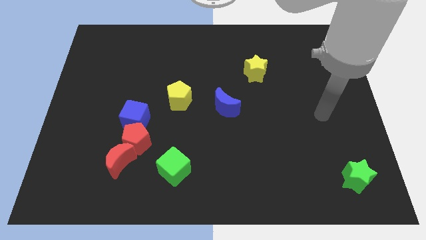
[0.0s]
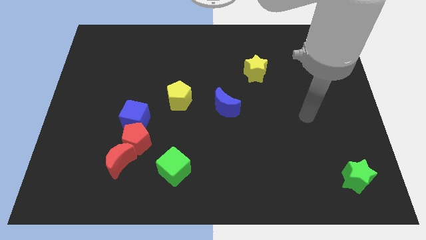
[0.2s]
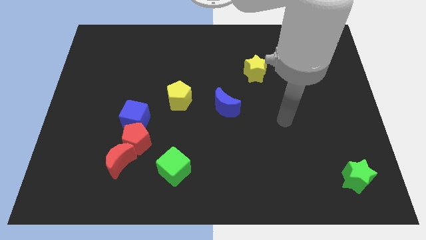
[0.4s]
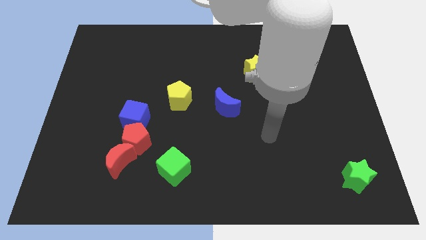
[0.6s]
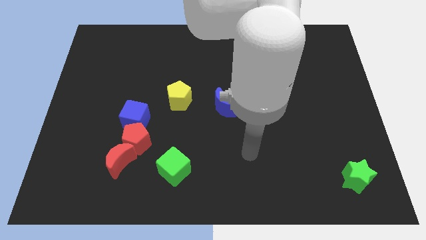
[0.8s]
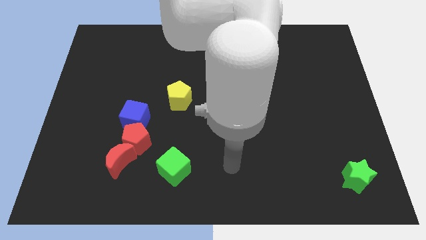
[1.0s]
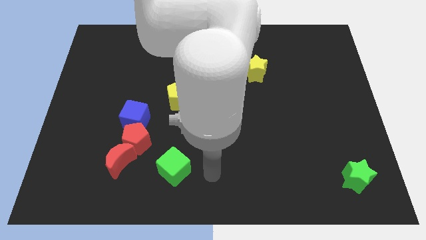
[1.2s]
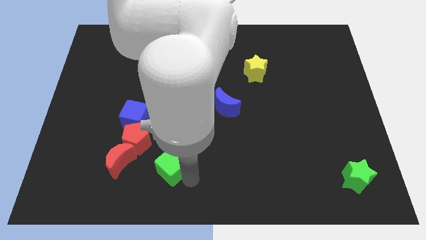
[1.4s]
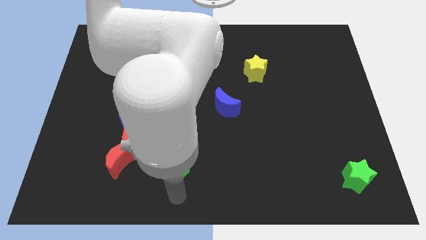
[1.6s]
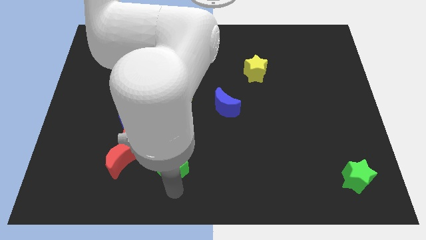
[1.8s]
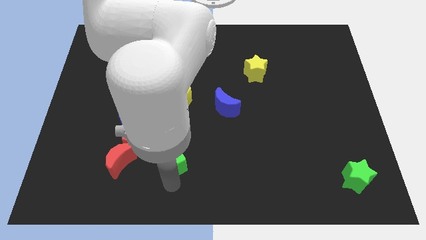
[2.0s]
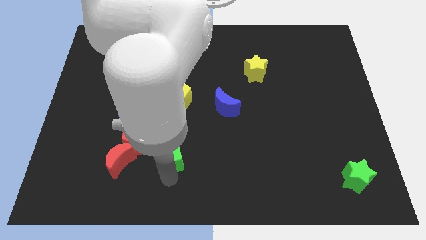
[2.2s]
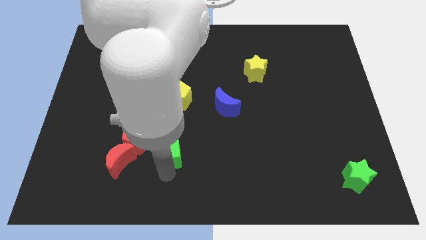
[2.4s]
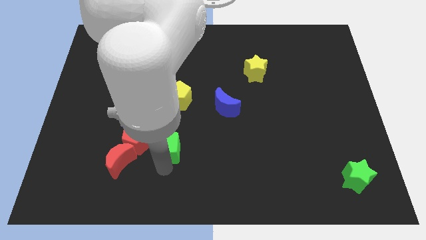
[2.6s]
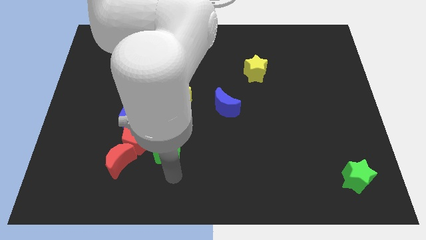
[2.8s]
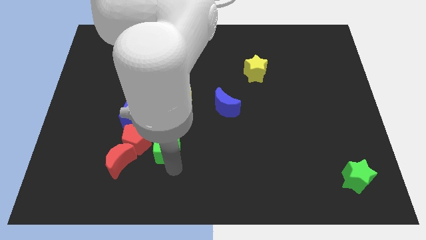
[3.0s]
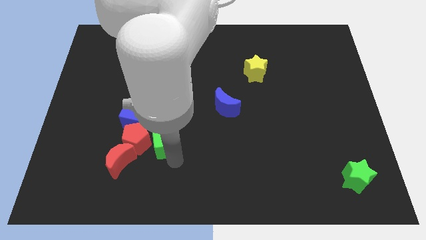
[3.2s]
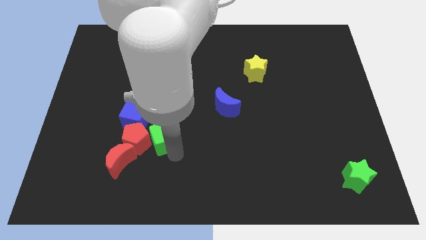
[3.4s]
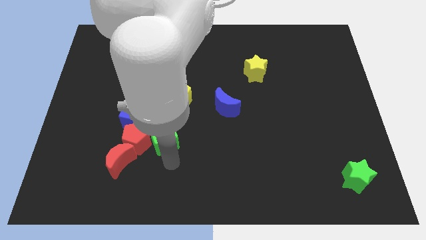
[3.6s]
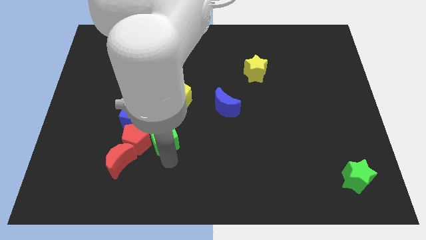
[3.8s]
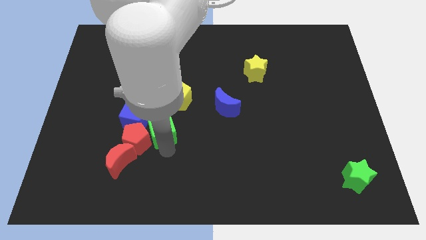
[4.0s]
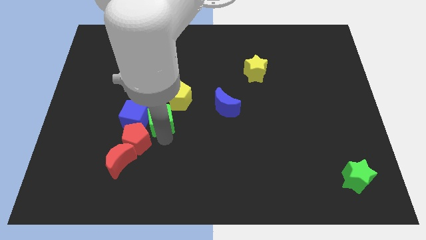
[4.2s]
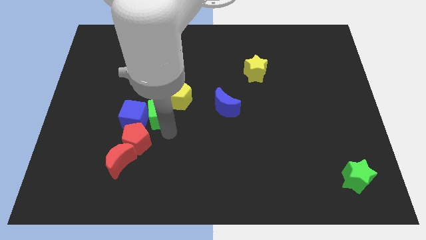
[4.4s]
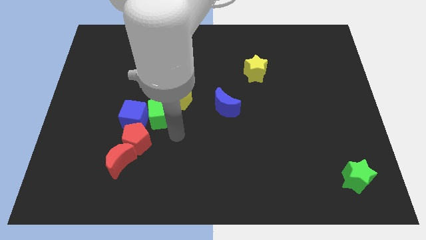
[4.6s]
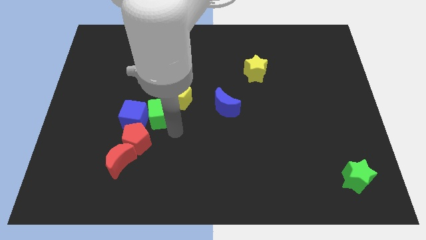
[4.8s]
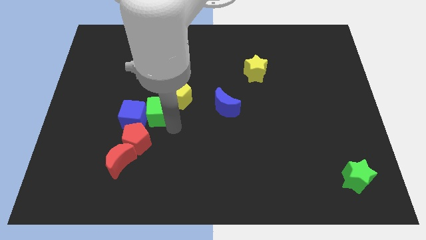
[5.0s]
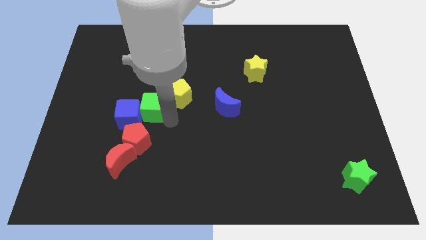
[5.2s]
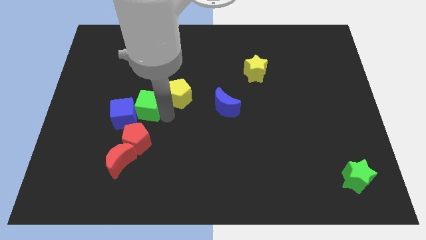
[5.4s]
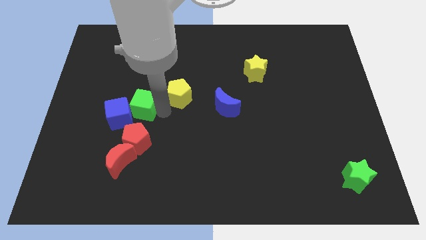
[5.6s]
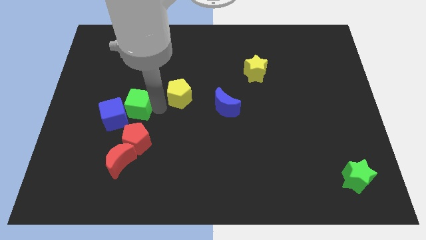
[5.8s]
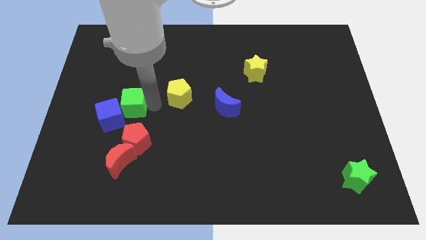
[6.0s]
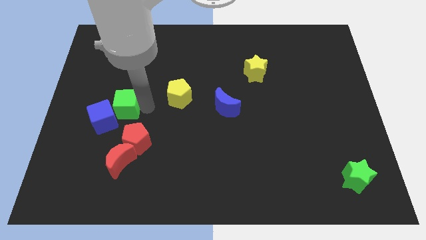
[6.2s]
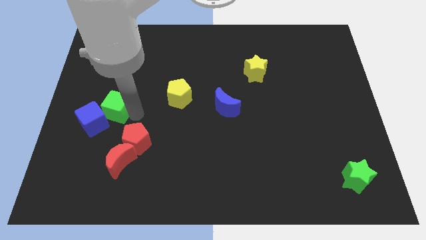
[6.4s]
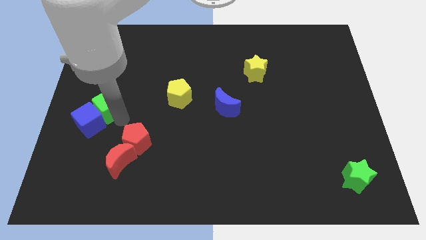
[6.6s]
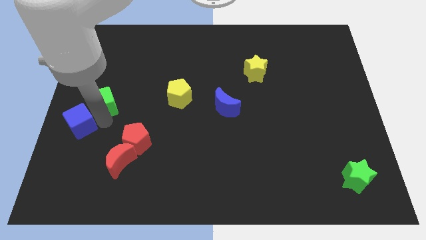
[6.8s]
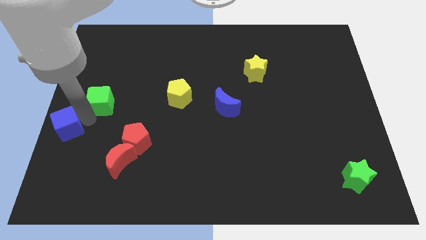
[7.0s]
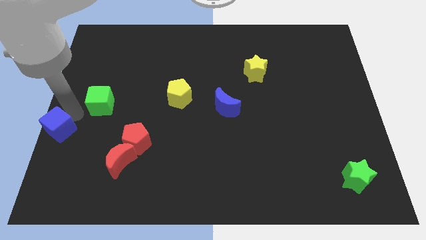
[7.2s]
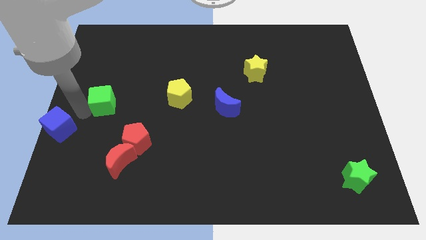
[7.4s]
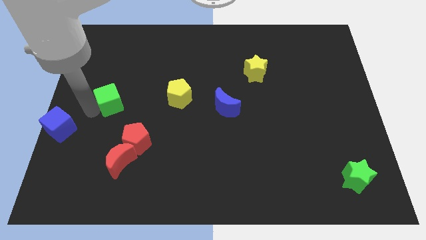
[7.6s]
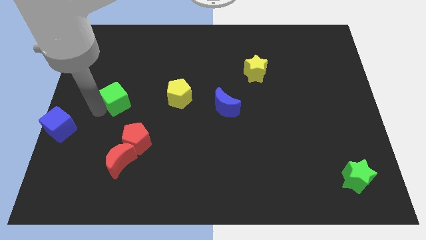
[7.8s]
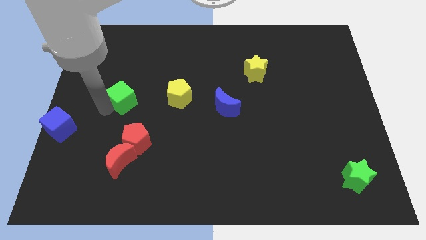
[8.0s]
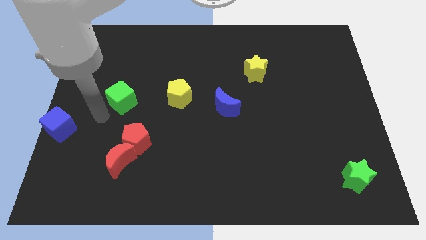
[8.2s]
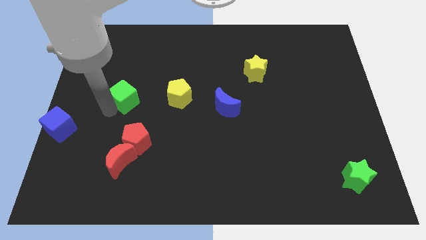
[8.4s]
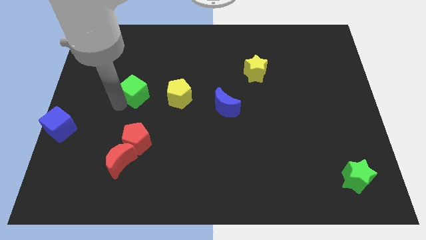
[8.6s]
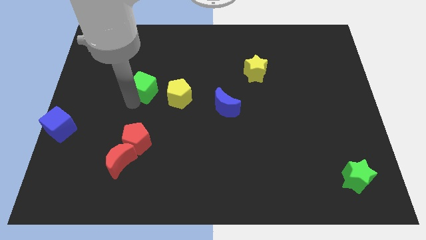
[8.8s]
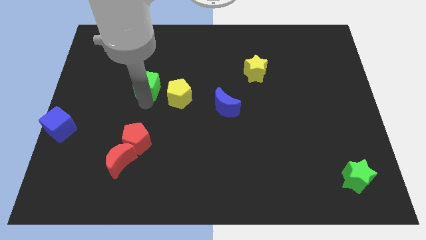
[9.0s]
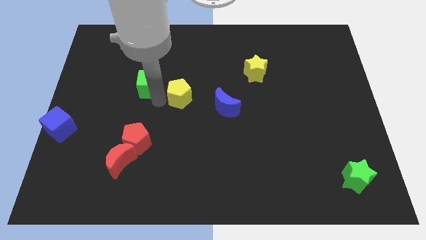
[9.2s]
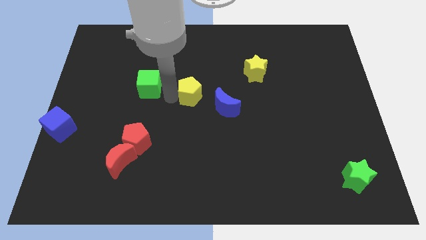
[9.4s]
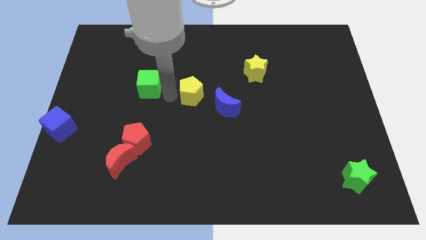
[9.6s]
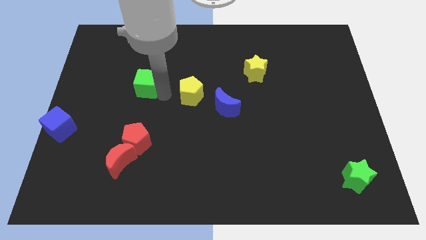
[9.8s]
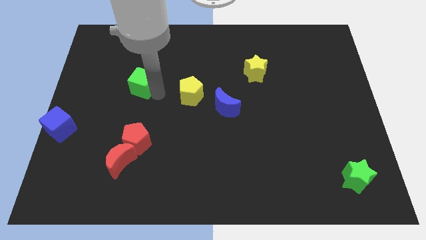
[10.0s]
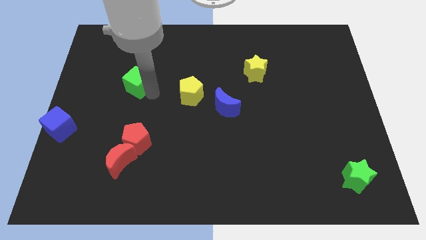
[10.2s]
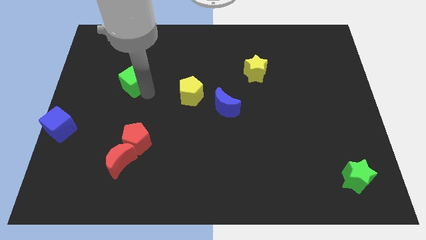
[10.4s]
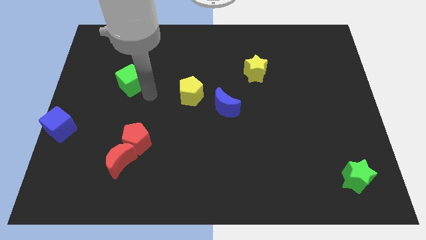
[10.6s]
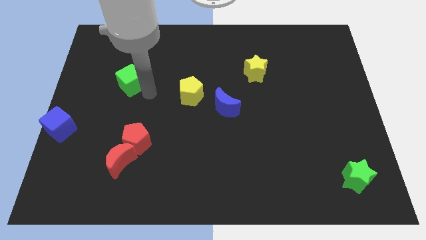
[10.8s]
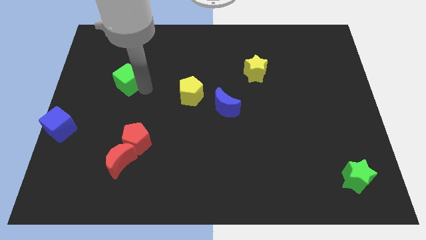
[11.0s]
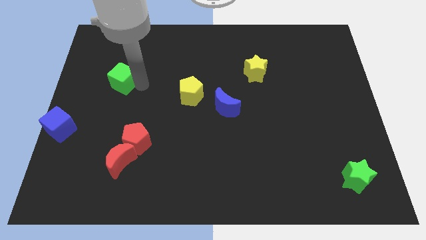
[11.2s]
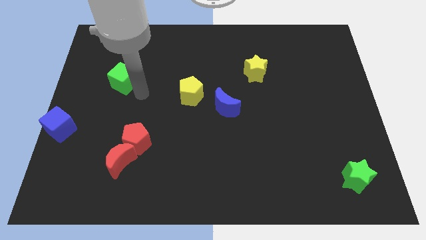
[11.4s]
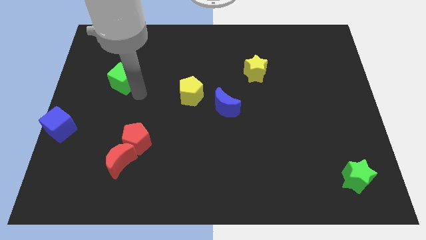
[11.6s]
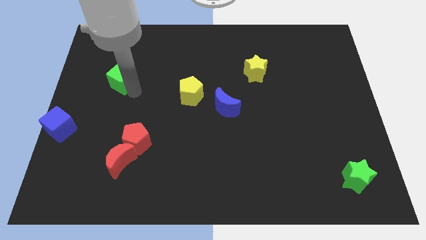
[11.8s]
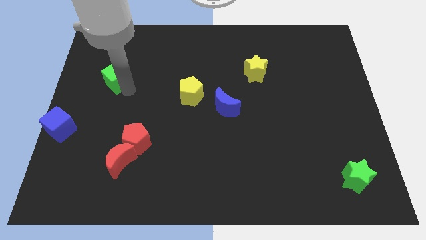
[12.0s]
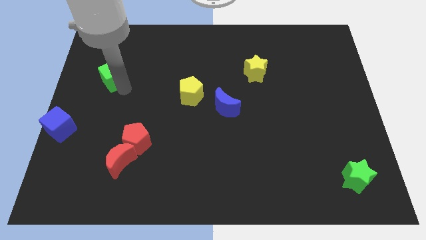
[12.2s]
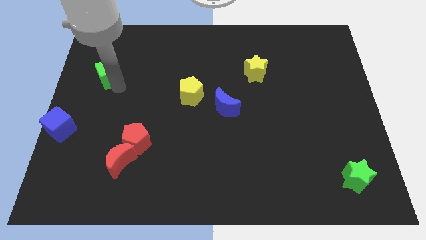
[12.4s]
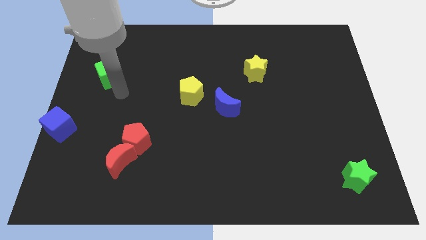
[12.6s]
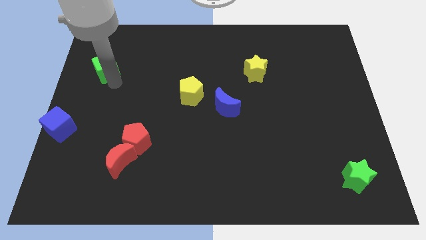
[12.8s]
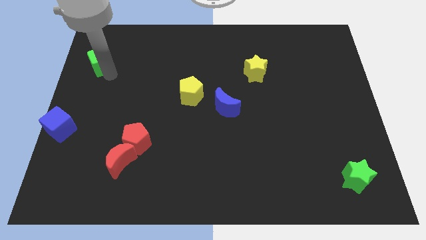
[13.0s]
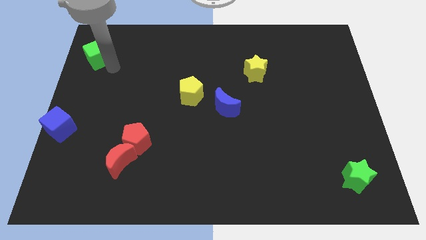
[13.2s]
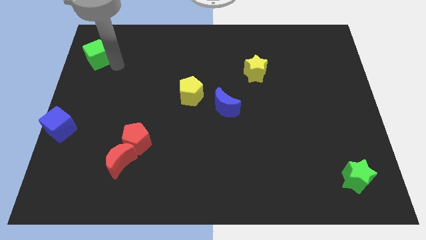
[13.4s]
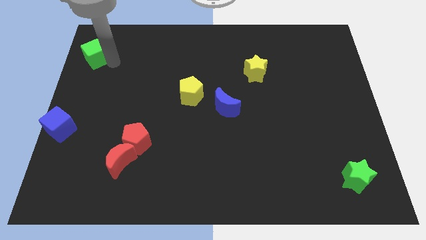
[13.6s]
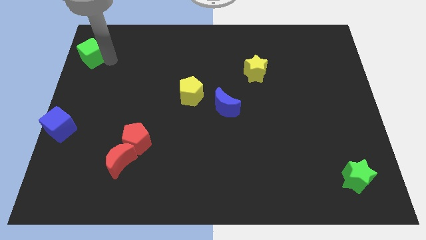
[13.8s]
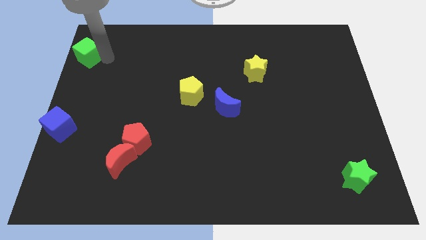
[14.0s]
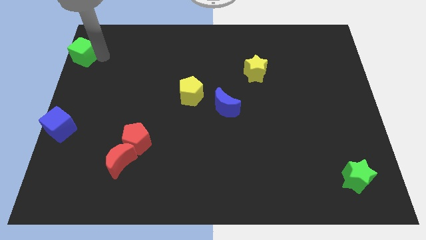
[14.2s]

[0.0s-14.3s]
slide the green cube to the upper left corner
